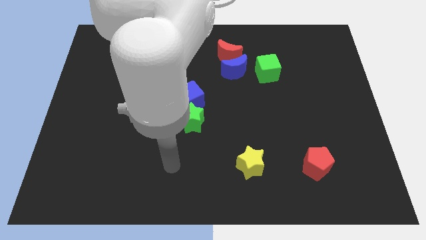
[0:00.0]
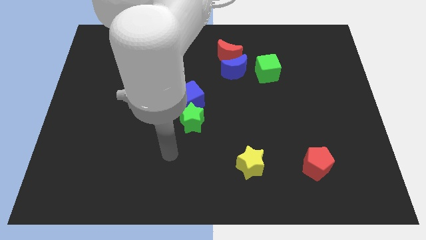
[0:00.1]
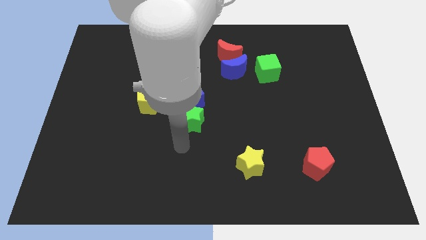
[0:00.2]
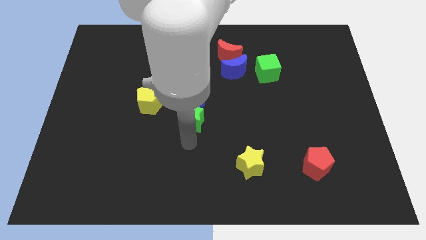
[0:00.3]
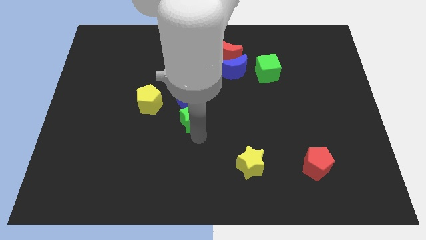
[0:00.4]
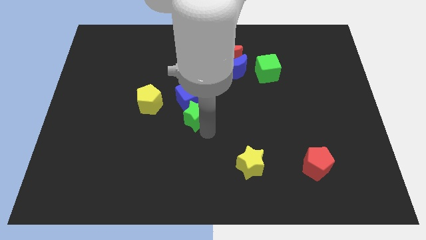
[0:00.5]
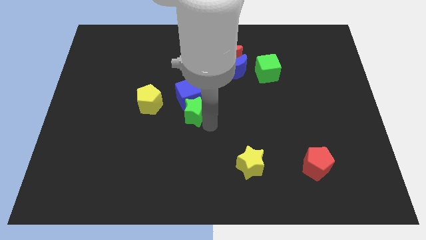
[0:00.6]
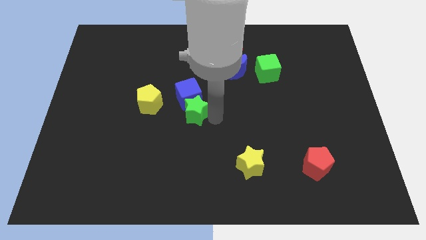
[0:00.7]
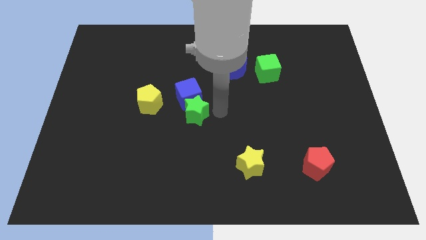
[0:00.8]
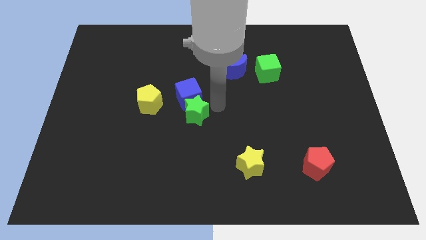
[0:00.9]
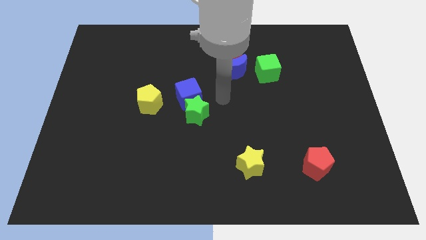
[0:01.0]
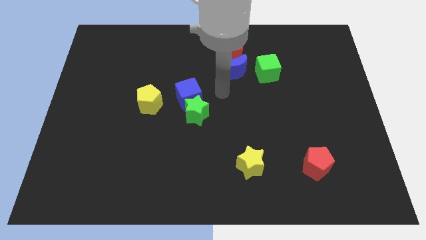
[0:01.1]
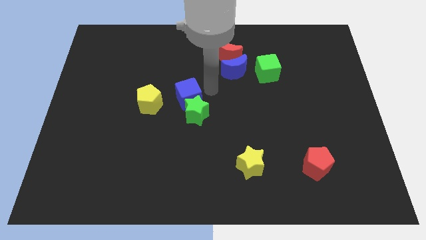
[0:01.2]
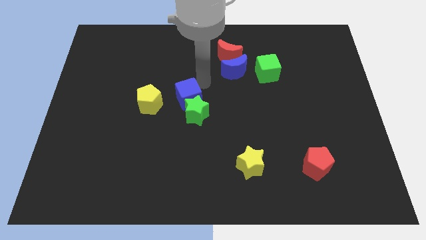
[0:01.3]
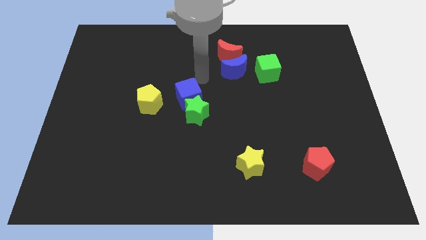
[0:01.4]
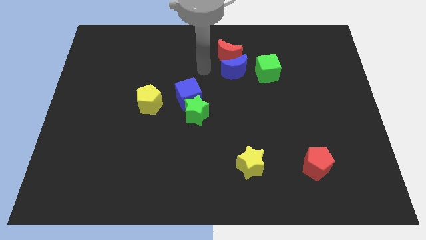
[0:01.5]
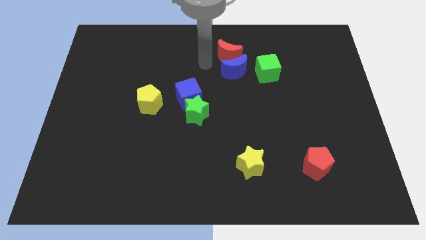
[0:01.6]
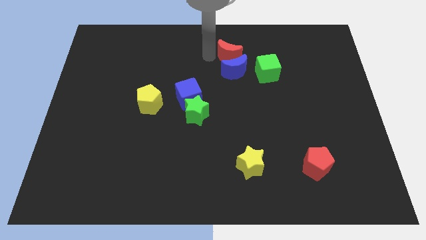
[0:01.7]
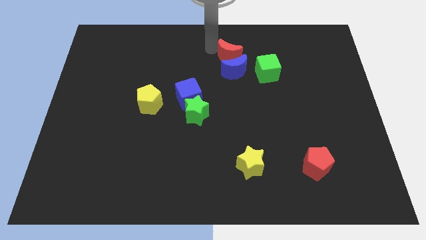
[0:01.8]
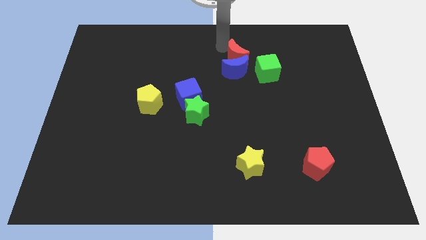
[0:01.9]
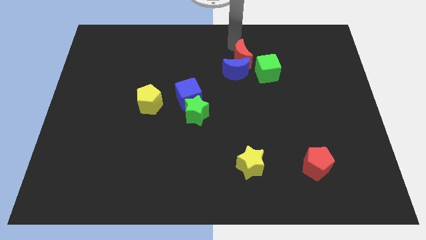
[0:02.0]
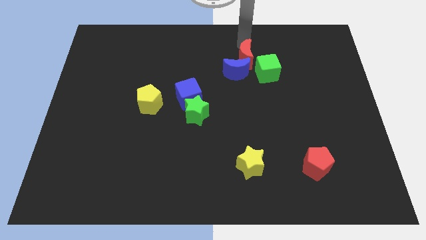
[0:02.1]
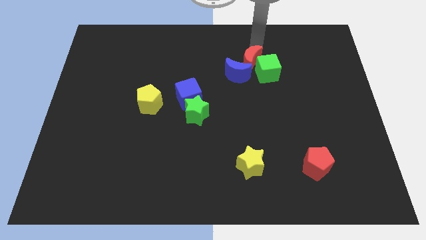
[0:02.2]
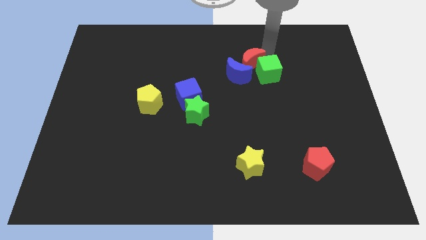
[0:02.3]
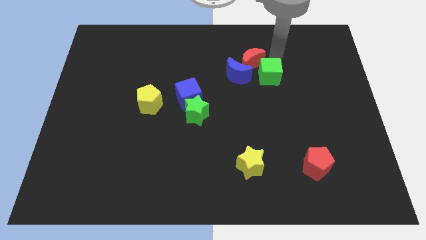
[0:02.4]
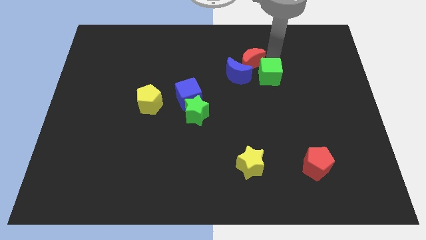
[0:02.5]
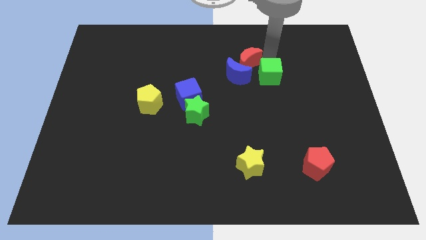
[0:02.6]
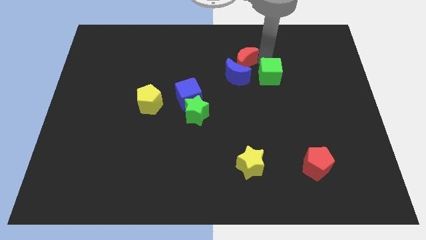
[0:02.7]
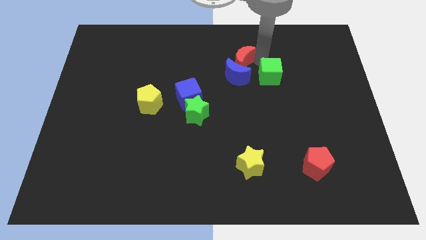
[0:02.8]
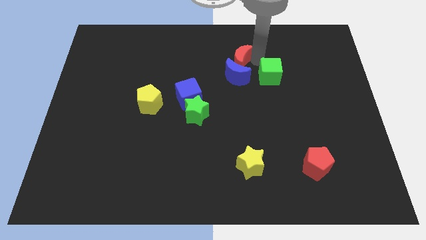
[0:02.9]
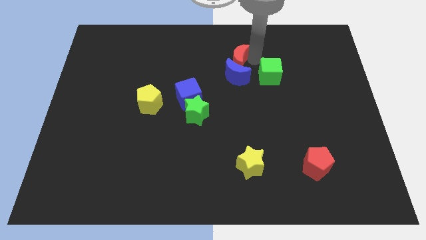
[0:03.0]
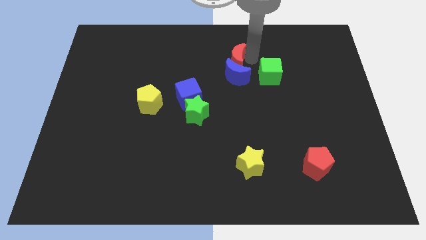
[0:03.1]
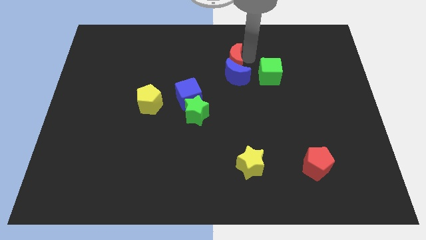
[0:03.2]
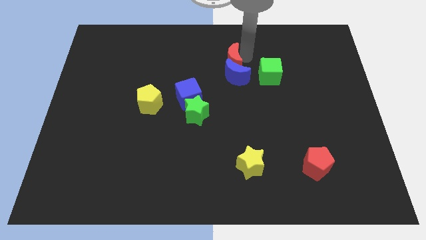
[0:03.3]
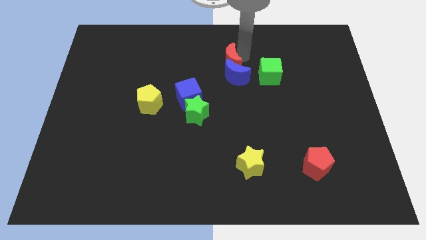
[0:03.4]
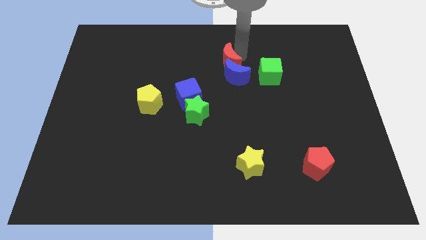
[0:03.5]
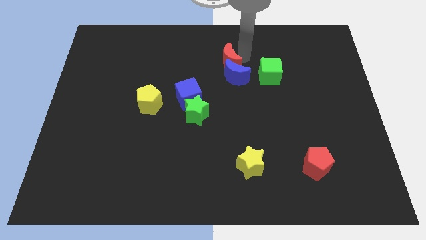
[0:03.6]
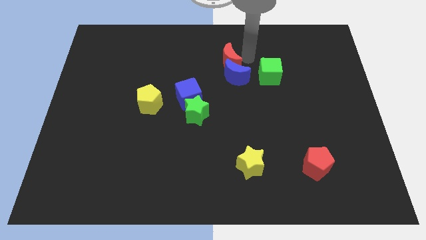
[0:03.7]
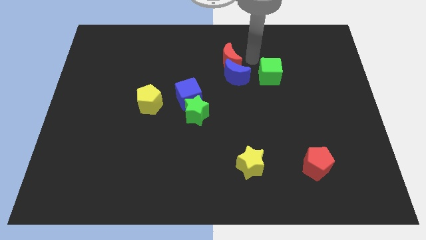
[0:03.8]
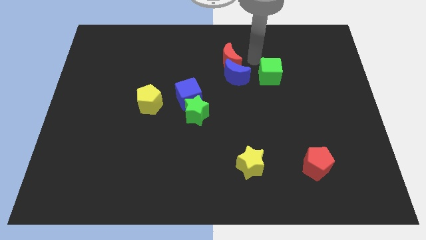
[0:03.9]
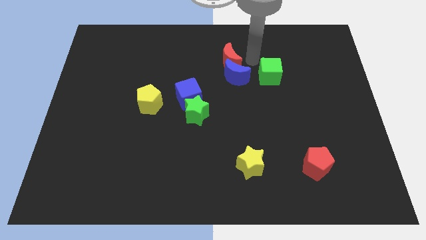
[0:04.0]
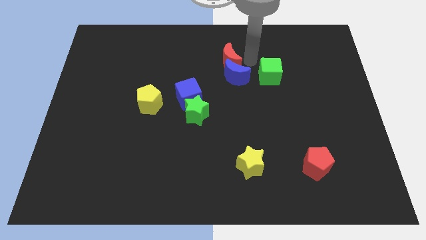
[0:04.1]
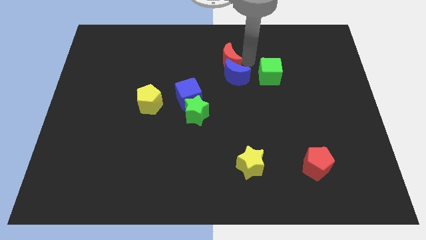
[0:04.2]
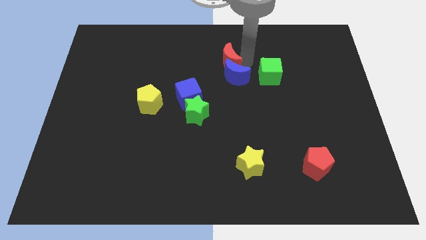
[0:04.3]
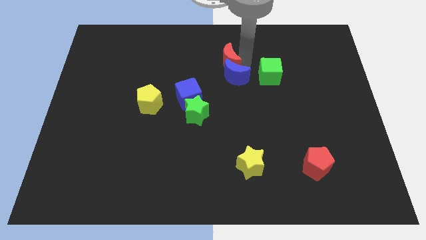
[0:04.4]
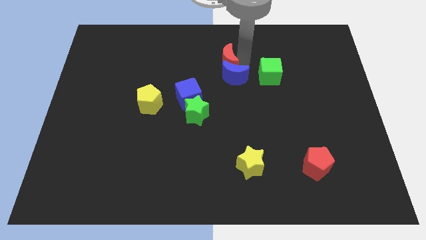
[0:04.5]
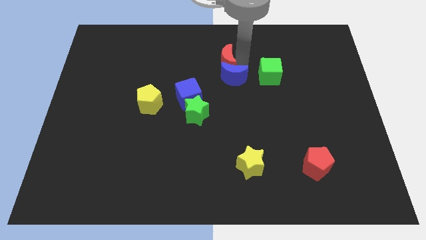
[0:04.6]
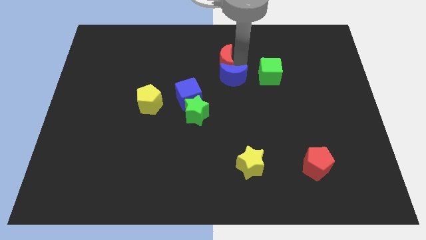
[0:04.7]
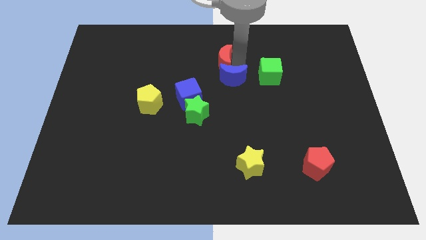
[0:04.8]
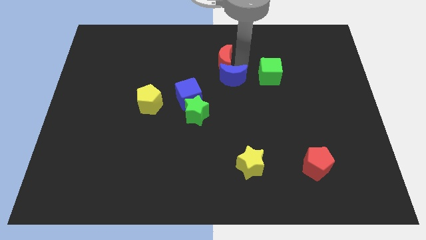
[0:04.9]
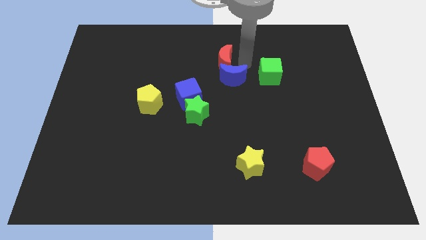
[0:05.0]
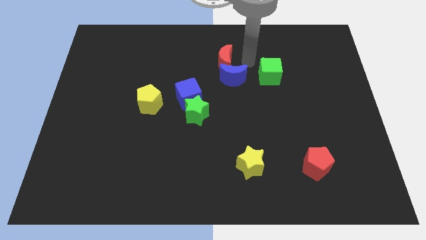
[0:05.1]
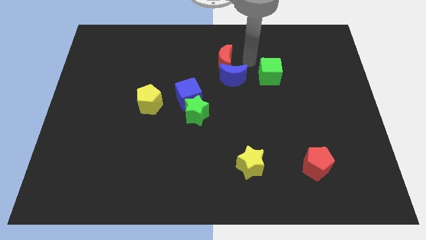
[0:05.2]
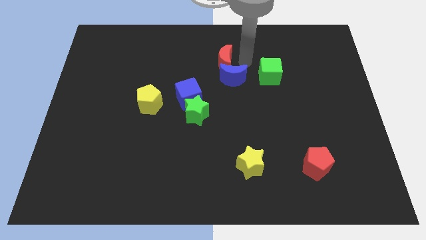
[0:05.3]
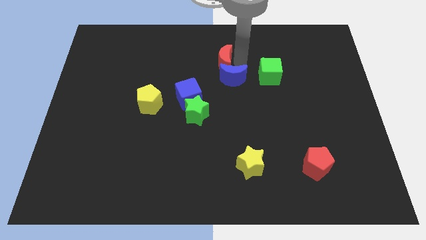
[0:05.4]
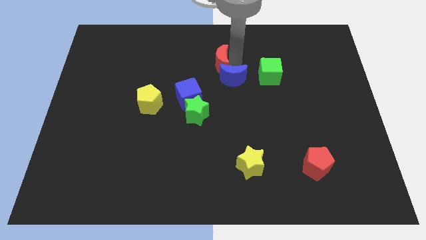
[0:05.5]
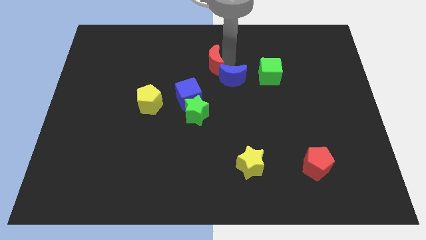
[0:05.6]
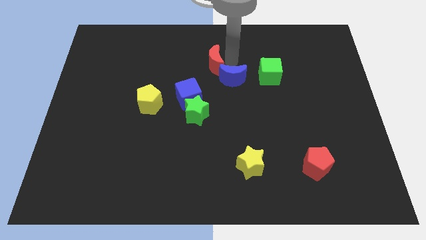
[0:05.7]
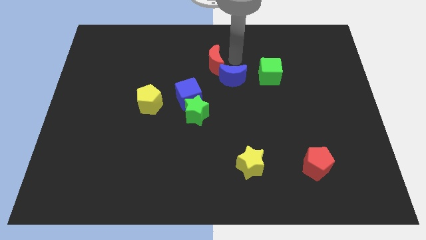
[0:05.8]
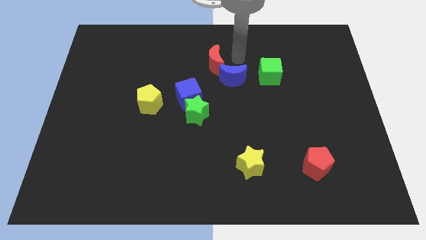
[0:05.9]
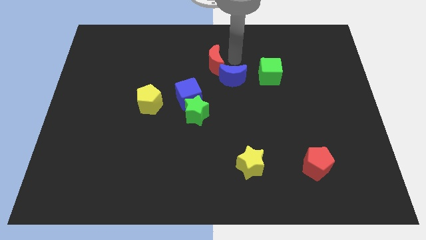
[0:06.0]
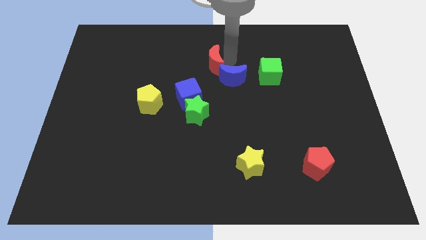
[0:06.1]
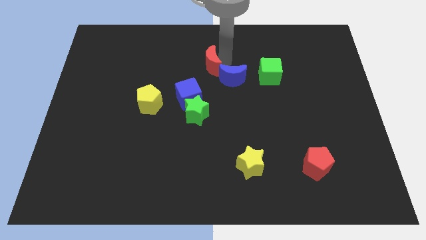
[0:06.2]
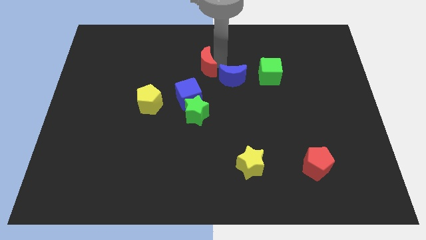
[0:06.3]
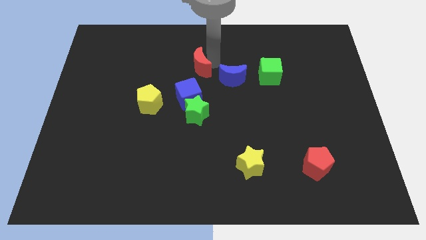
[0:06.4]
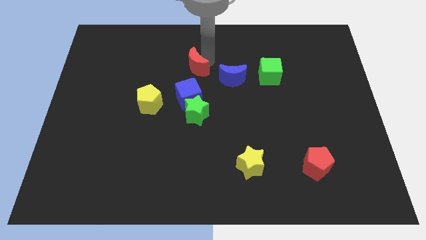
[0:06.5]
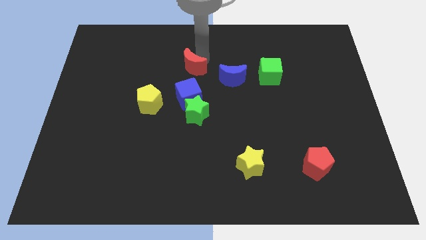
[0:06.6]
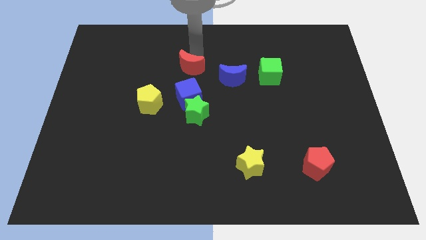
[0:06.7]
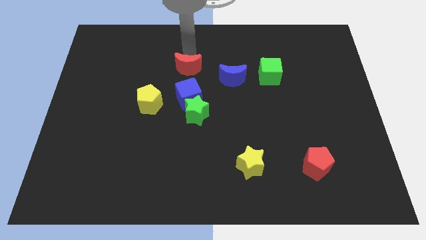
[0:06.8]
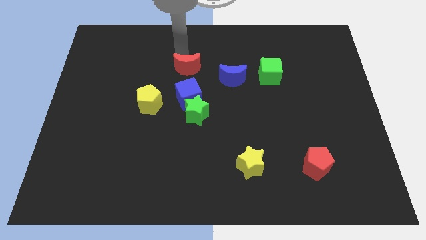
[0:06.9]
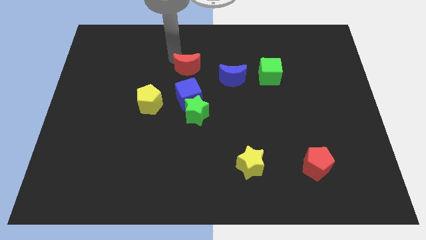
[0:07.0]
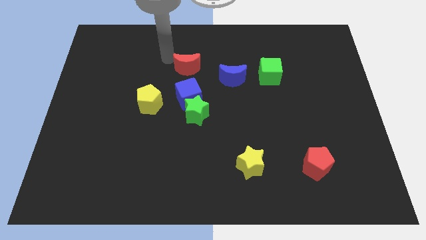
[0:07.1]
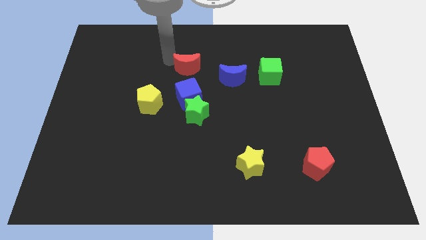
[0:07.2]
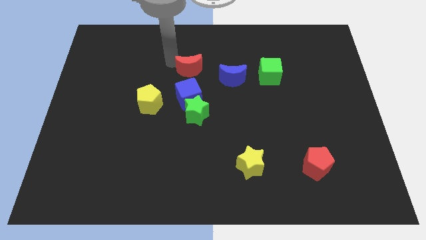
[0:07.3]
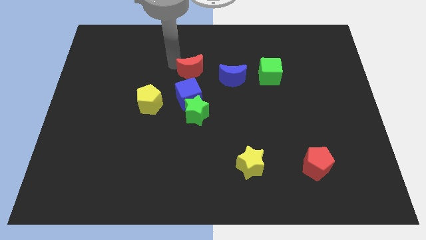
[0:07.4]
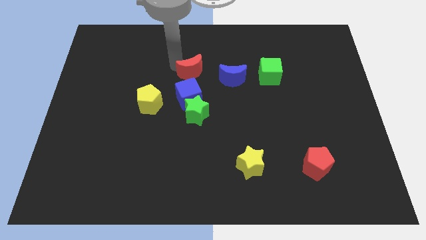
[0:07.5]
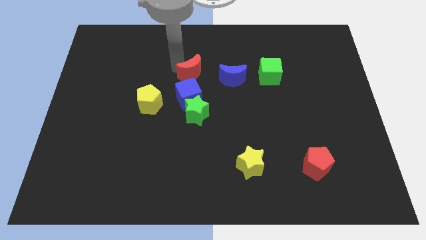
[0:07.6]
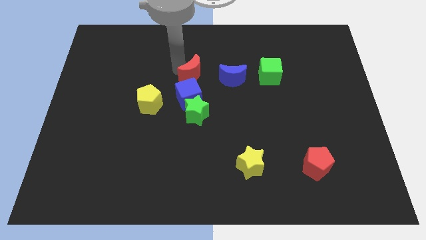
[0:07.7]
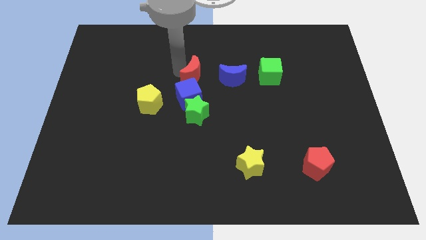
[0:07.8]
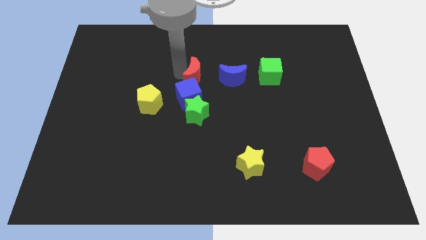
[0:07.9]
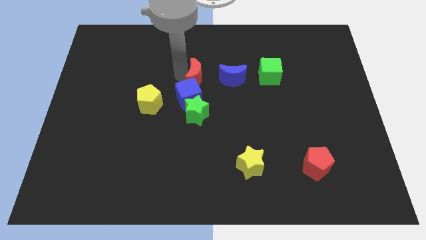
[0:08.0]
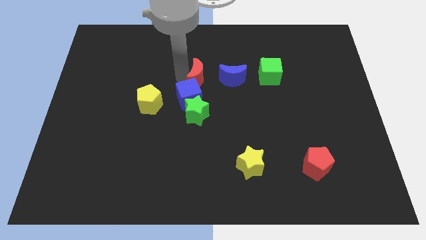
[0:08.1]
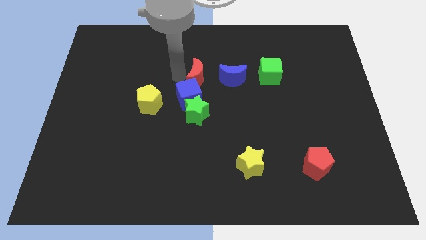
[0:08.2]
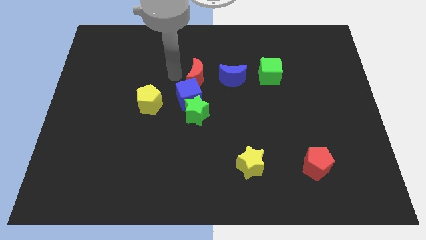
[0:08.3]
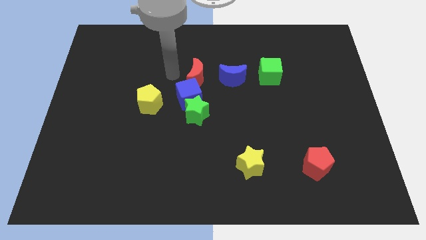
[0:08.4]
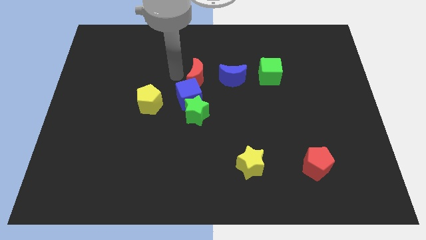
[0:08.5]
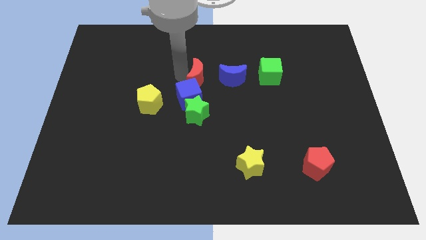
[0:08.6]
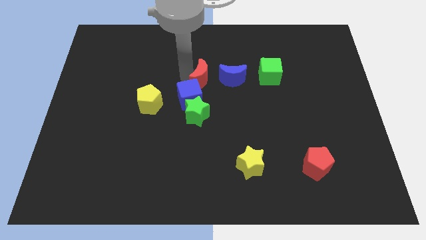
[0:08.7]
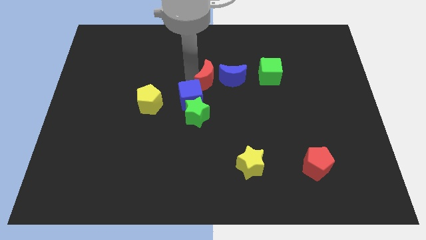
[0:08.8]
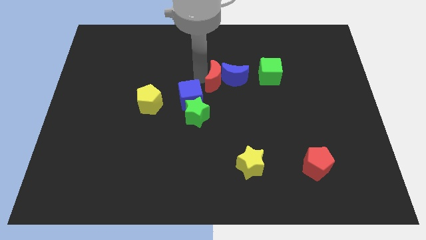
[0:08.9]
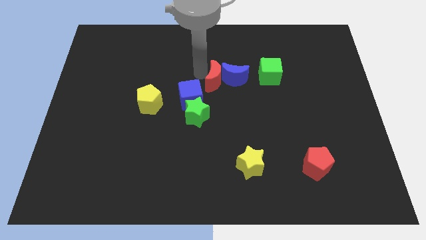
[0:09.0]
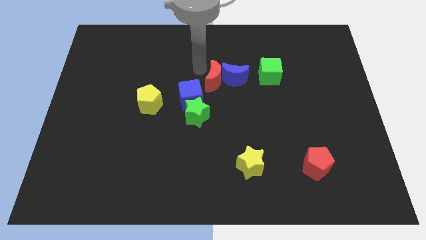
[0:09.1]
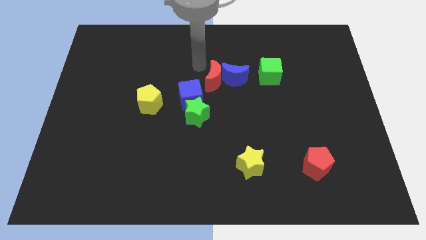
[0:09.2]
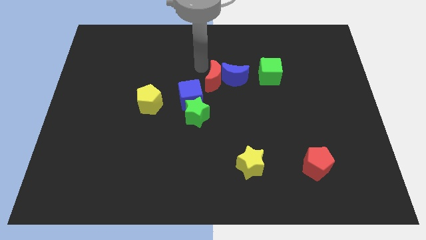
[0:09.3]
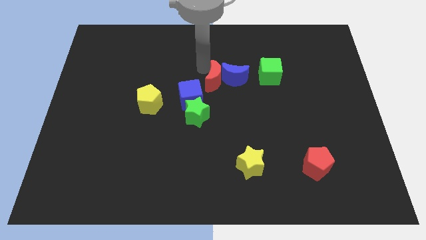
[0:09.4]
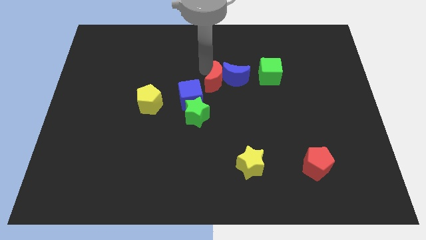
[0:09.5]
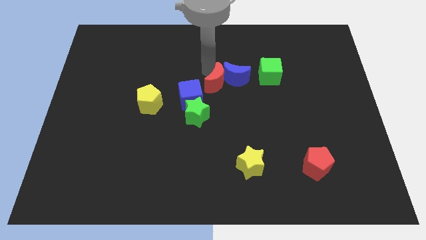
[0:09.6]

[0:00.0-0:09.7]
put the red moon to the right side of the blue cube
